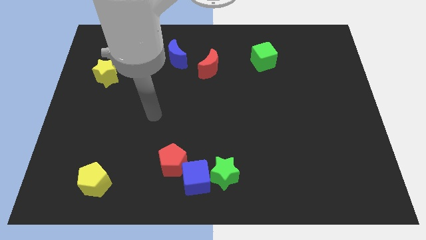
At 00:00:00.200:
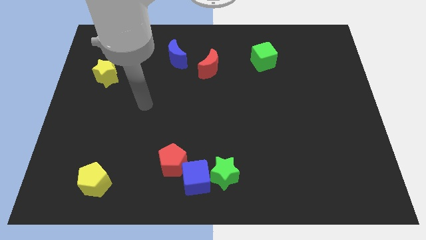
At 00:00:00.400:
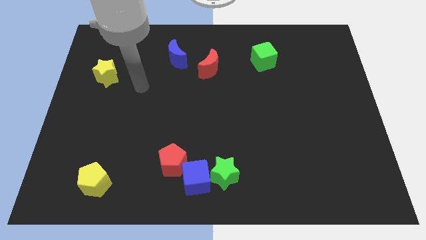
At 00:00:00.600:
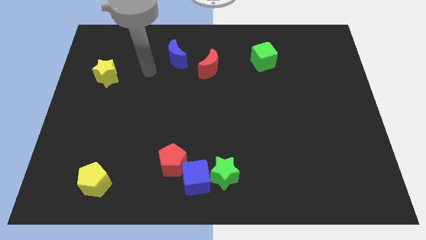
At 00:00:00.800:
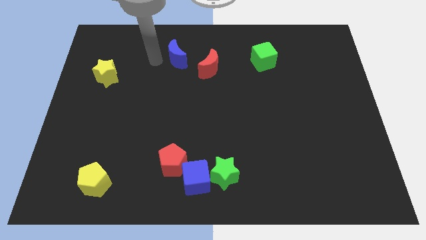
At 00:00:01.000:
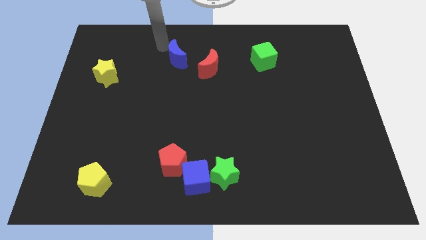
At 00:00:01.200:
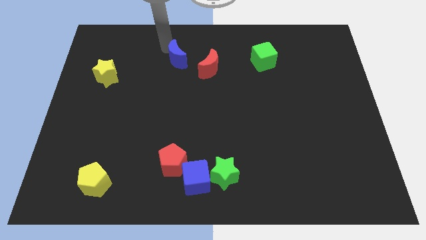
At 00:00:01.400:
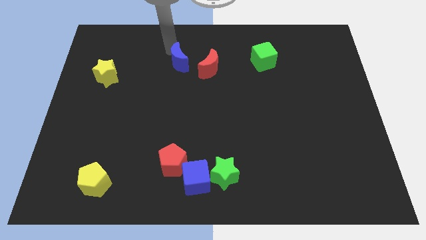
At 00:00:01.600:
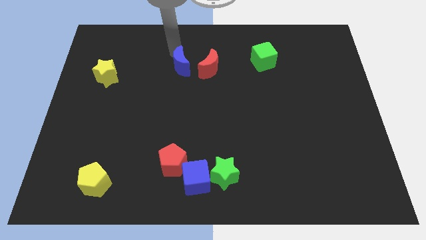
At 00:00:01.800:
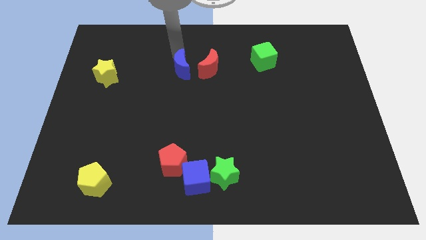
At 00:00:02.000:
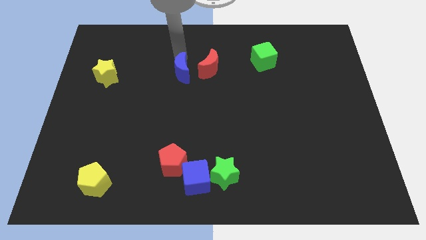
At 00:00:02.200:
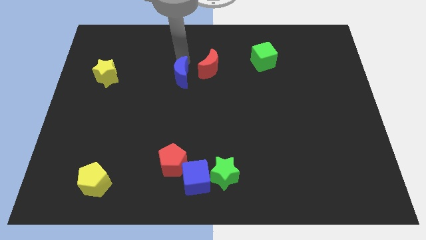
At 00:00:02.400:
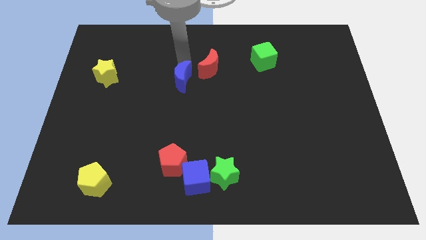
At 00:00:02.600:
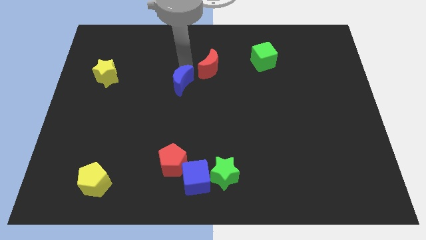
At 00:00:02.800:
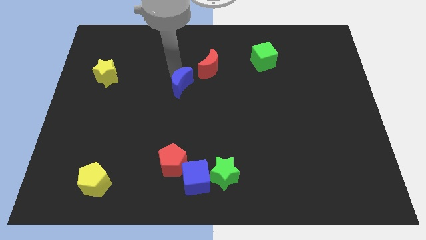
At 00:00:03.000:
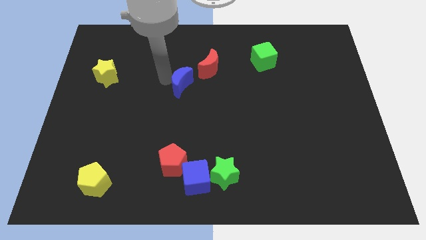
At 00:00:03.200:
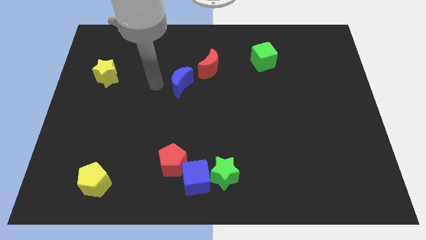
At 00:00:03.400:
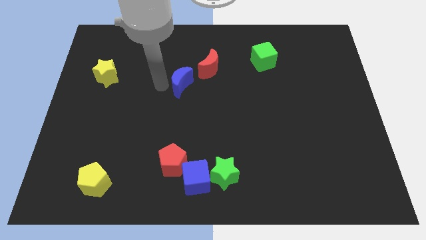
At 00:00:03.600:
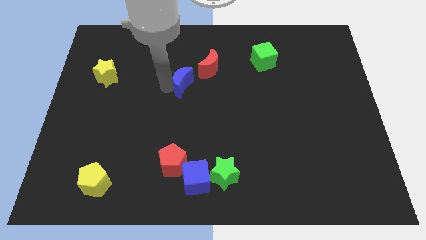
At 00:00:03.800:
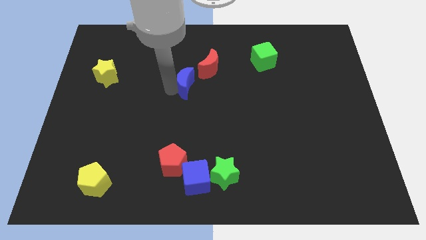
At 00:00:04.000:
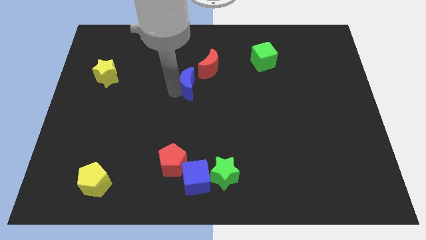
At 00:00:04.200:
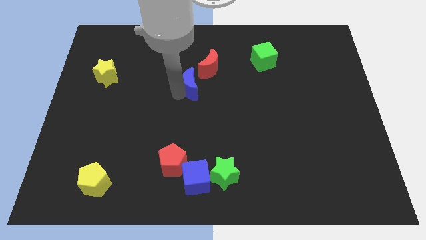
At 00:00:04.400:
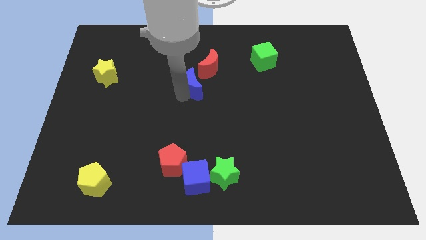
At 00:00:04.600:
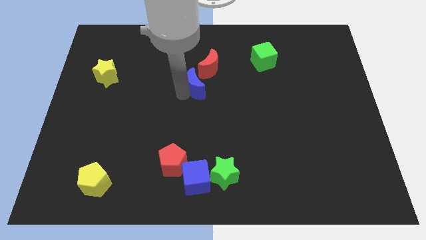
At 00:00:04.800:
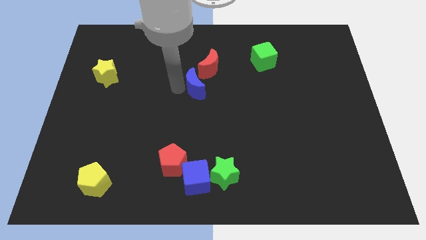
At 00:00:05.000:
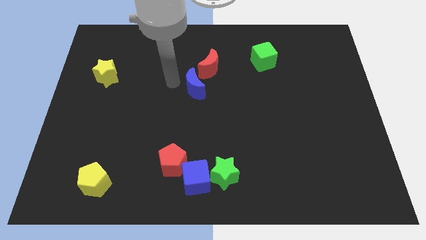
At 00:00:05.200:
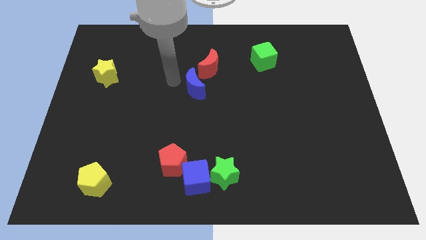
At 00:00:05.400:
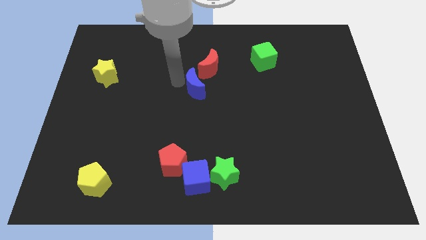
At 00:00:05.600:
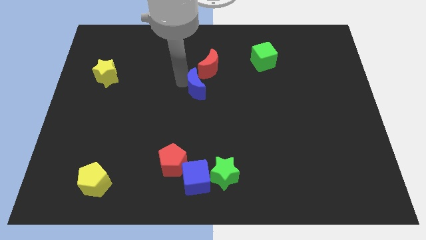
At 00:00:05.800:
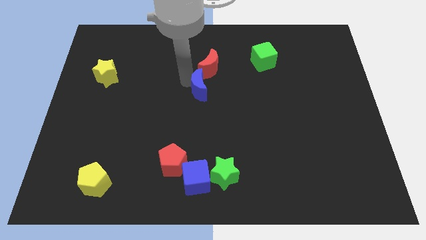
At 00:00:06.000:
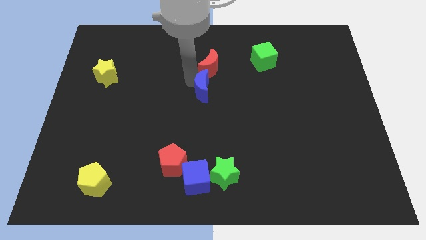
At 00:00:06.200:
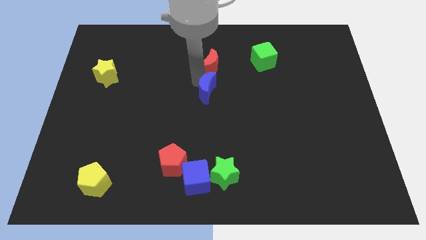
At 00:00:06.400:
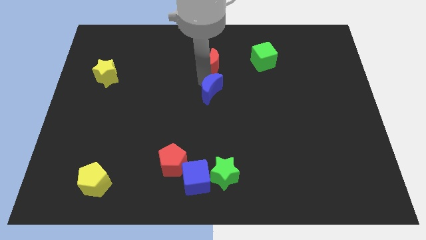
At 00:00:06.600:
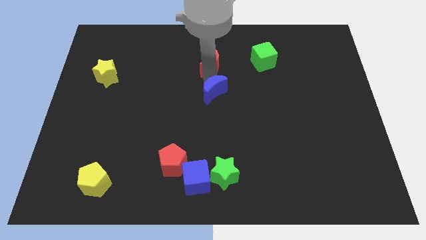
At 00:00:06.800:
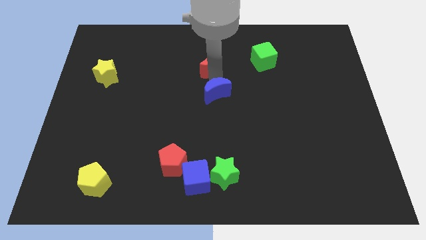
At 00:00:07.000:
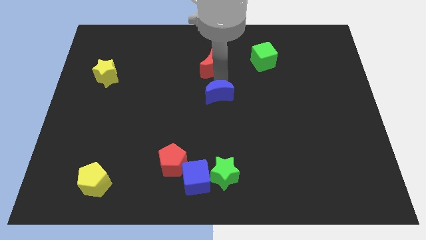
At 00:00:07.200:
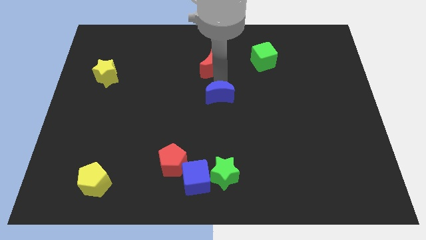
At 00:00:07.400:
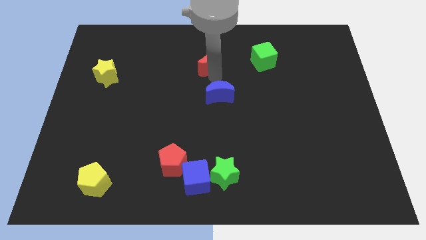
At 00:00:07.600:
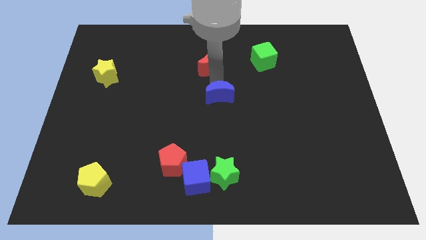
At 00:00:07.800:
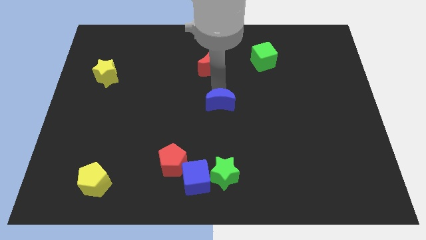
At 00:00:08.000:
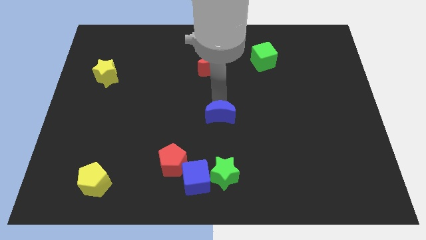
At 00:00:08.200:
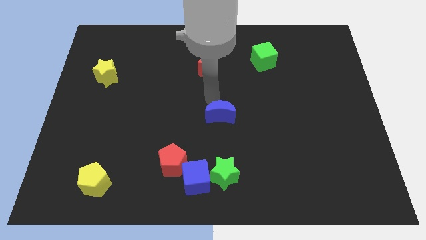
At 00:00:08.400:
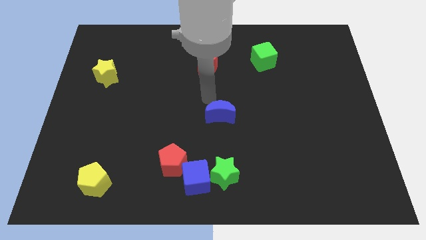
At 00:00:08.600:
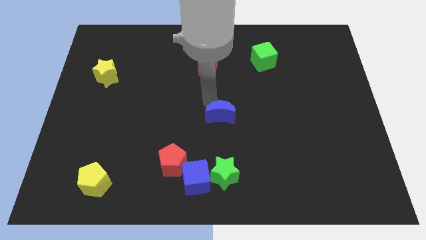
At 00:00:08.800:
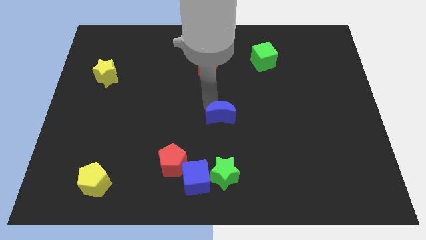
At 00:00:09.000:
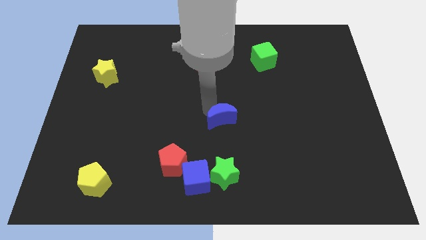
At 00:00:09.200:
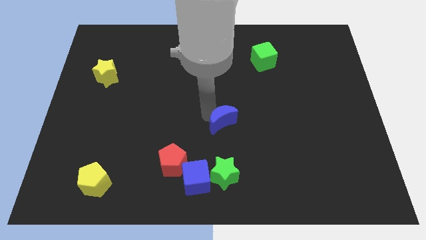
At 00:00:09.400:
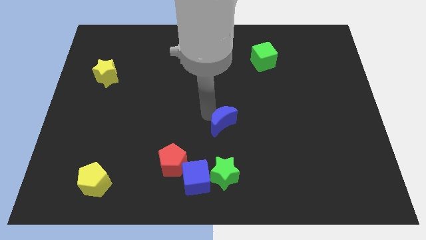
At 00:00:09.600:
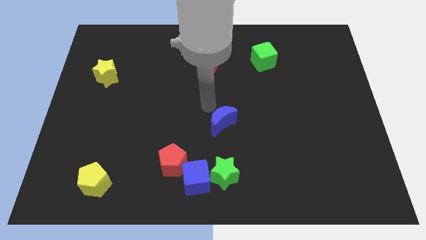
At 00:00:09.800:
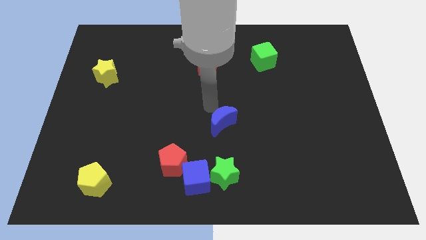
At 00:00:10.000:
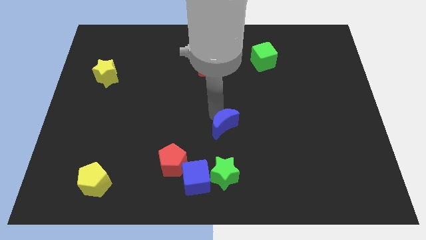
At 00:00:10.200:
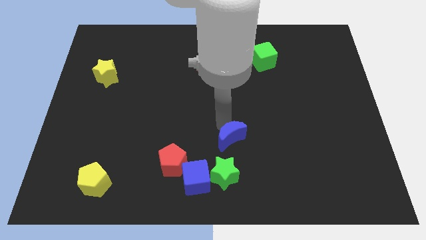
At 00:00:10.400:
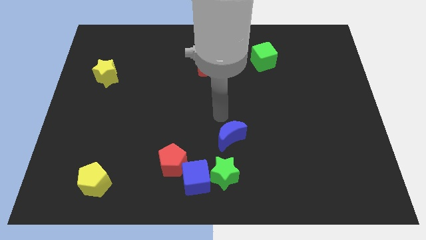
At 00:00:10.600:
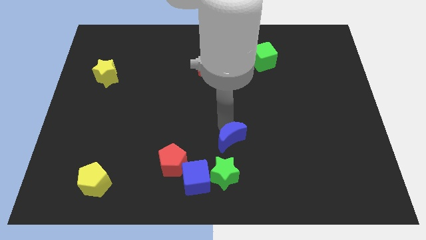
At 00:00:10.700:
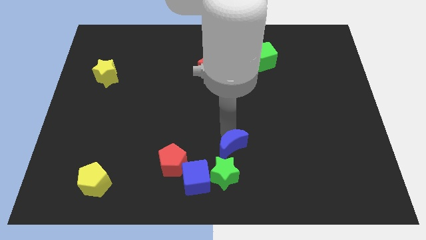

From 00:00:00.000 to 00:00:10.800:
put the blue moon to the right side of the red pentagon

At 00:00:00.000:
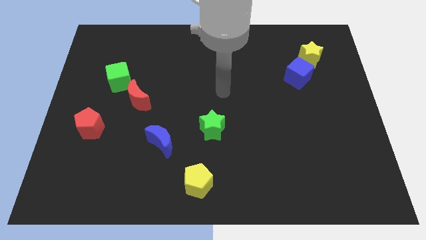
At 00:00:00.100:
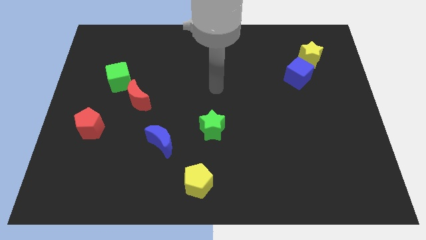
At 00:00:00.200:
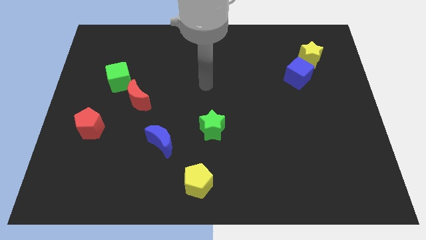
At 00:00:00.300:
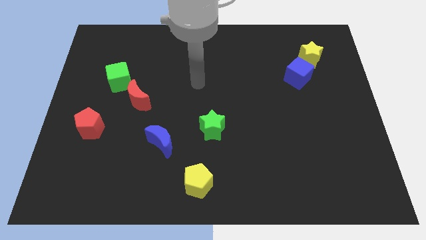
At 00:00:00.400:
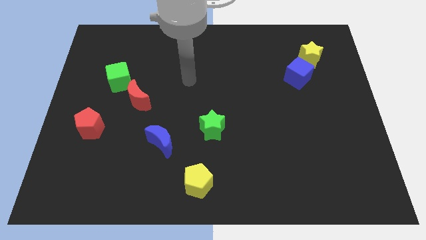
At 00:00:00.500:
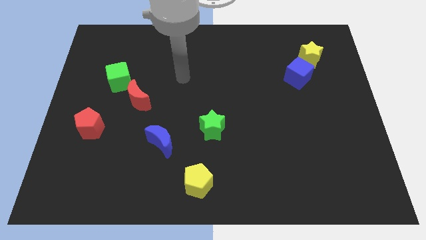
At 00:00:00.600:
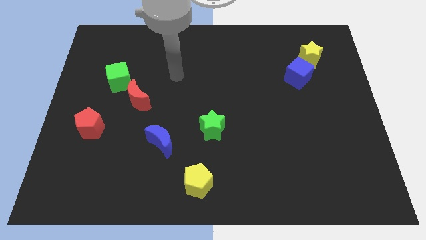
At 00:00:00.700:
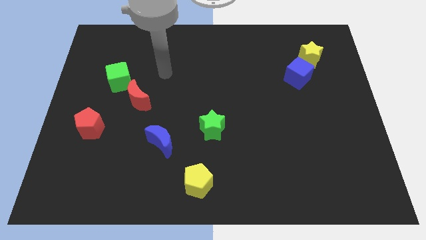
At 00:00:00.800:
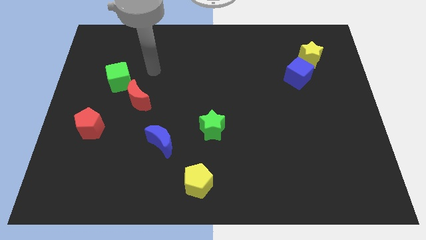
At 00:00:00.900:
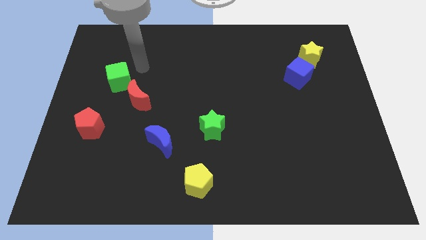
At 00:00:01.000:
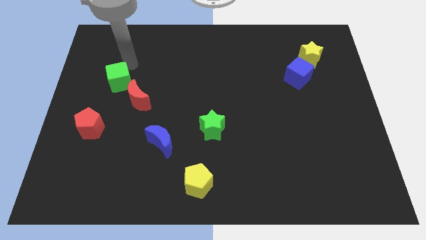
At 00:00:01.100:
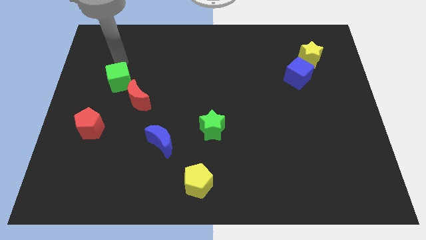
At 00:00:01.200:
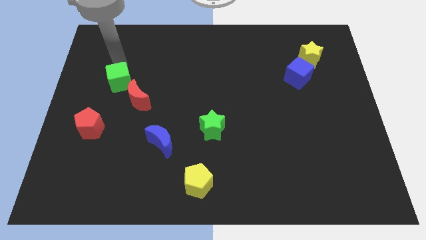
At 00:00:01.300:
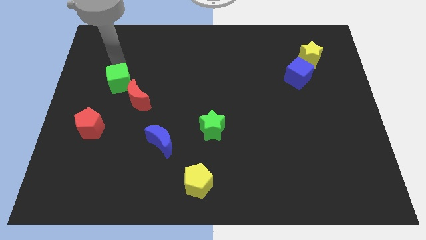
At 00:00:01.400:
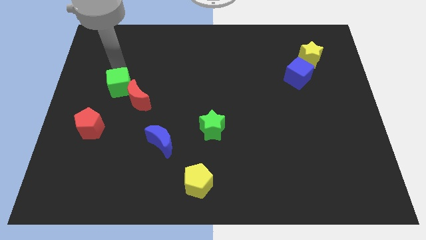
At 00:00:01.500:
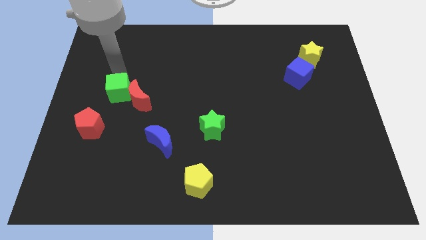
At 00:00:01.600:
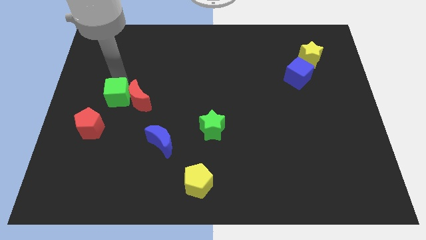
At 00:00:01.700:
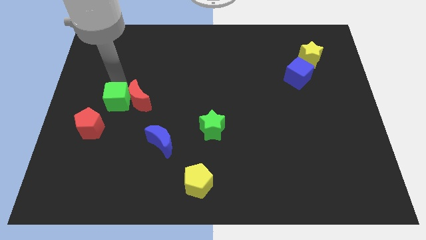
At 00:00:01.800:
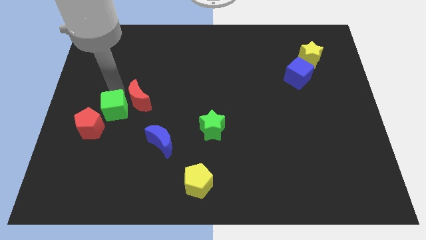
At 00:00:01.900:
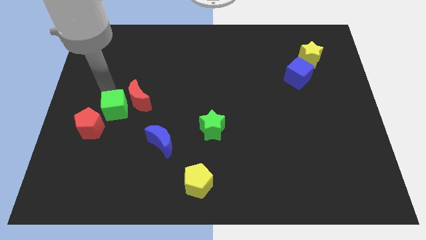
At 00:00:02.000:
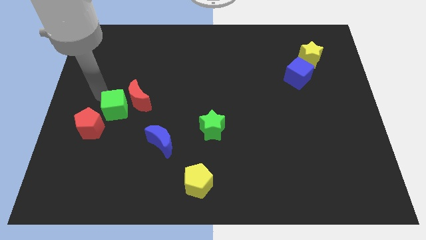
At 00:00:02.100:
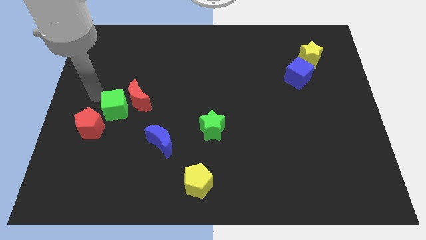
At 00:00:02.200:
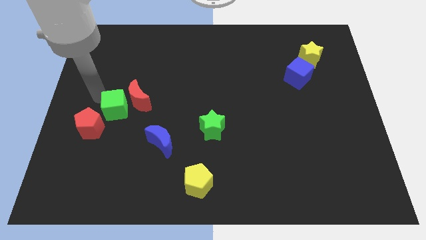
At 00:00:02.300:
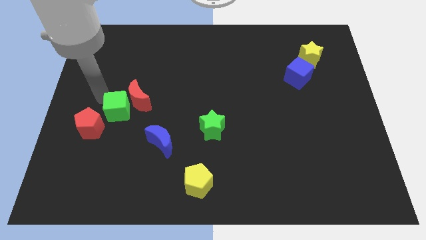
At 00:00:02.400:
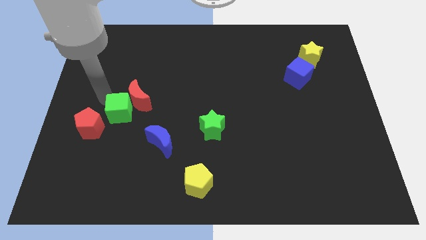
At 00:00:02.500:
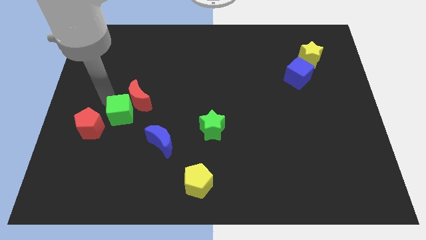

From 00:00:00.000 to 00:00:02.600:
push the green cube to the top left of the blue moon
